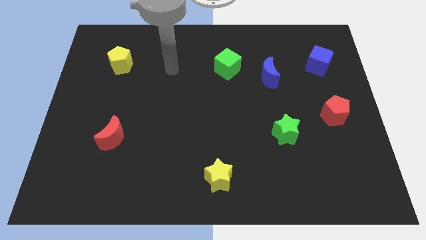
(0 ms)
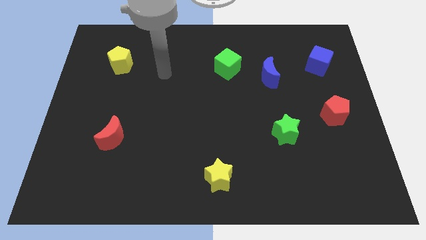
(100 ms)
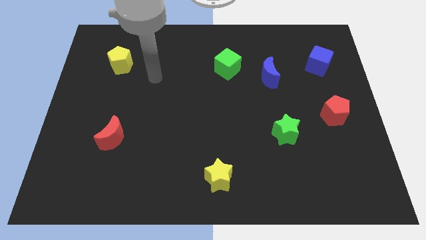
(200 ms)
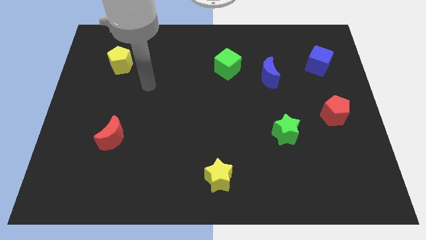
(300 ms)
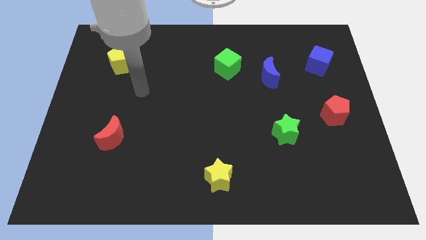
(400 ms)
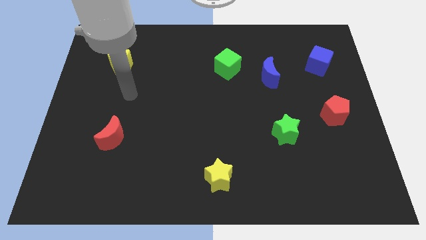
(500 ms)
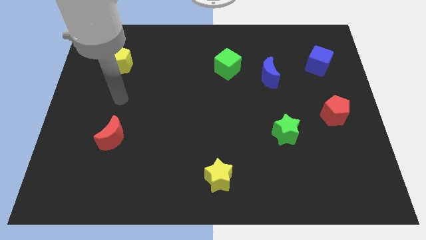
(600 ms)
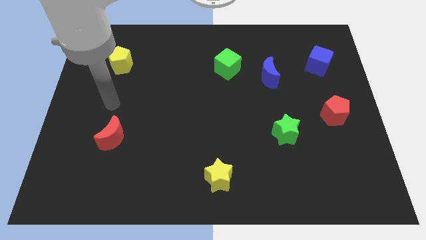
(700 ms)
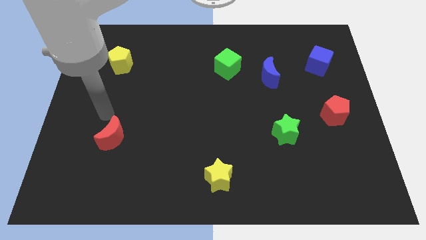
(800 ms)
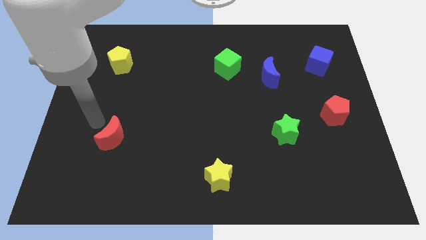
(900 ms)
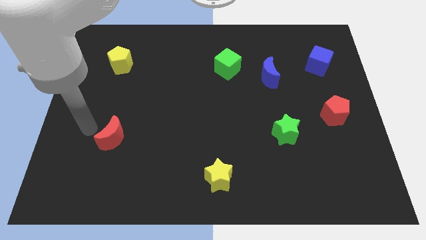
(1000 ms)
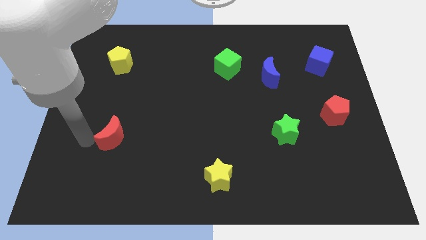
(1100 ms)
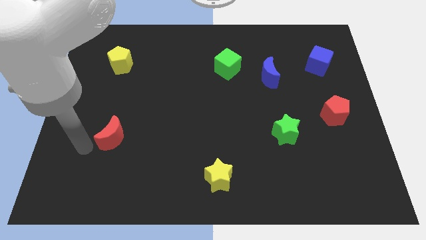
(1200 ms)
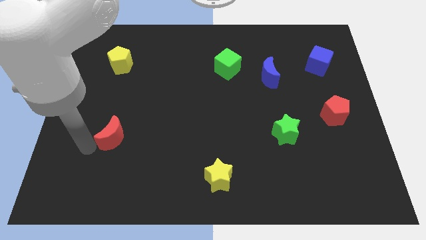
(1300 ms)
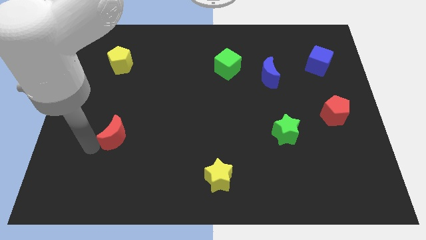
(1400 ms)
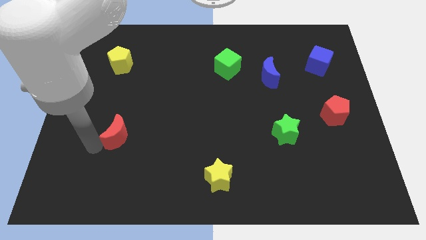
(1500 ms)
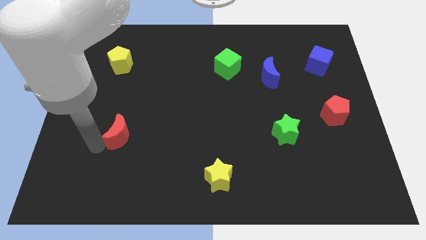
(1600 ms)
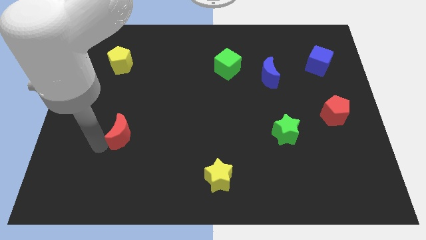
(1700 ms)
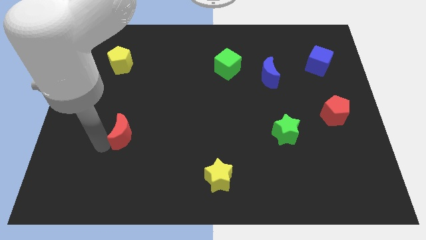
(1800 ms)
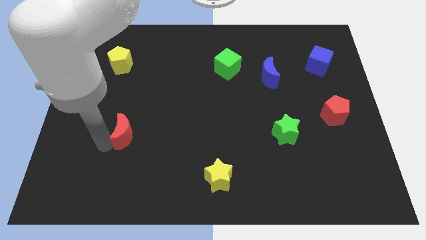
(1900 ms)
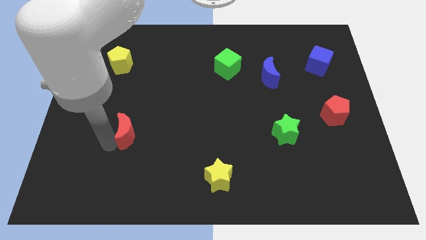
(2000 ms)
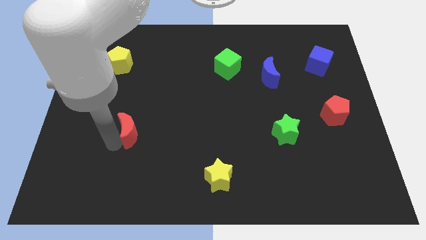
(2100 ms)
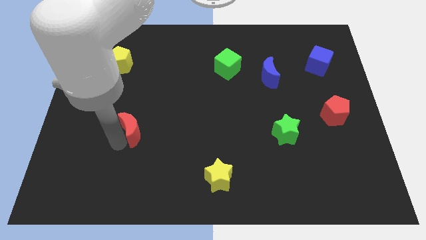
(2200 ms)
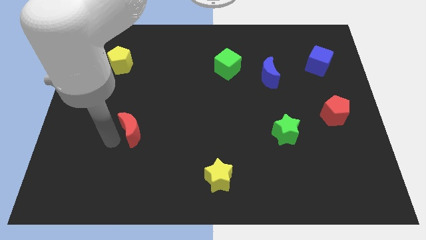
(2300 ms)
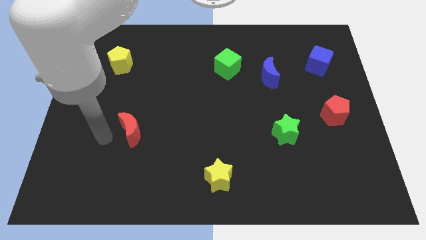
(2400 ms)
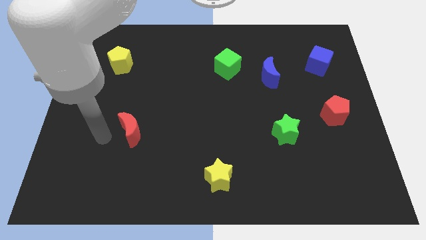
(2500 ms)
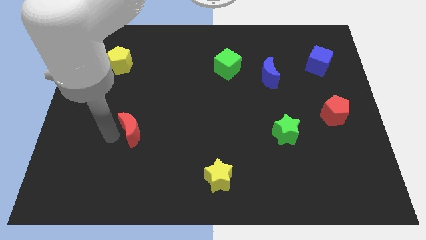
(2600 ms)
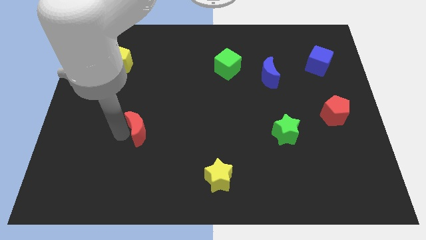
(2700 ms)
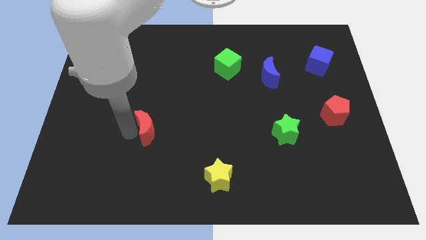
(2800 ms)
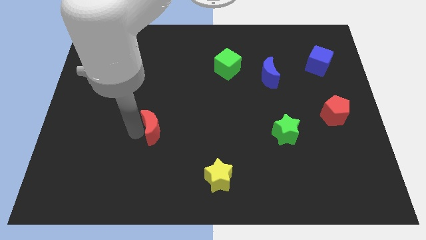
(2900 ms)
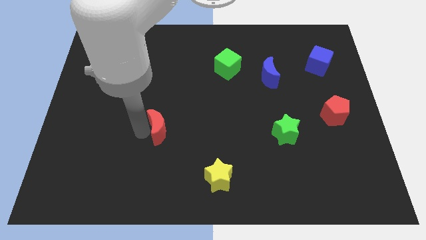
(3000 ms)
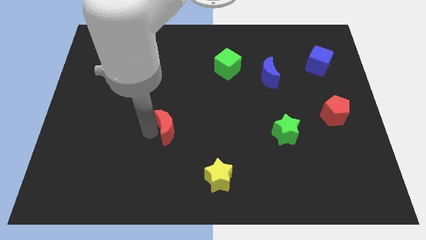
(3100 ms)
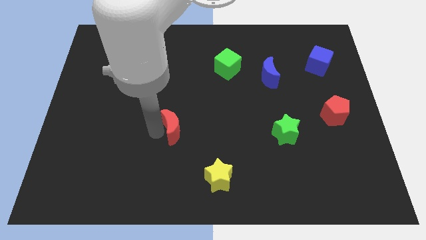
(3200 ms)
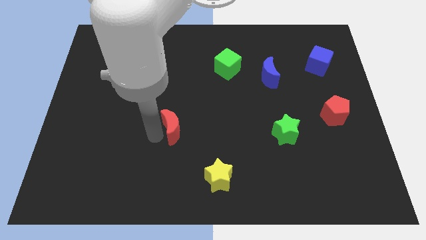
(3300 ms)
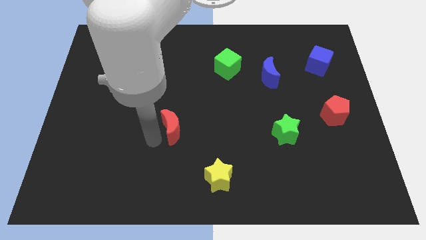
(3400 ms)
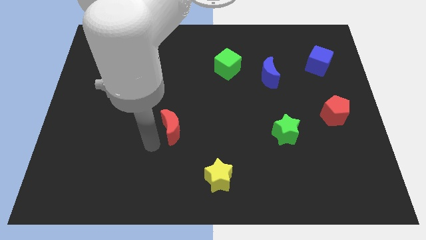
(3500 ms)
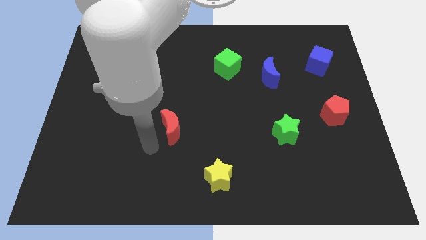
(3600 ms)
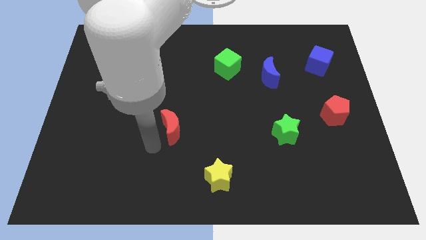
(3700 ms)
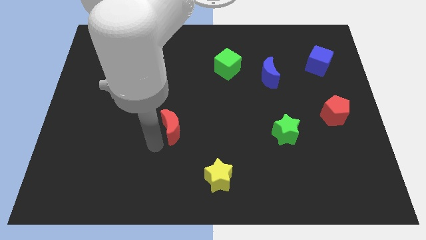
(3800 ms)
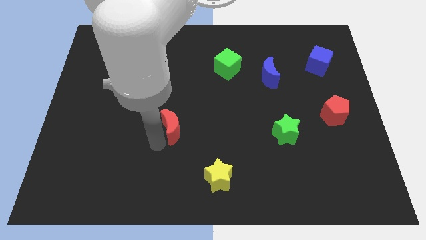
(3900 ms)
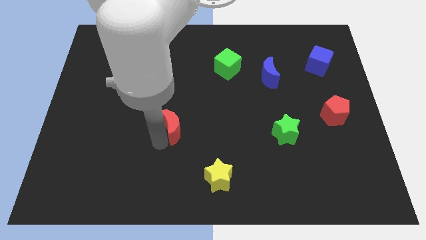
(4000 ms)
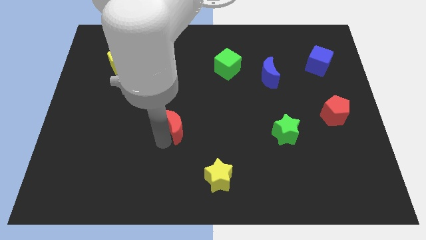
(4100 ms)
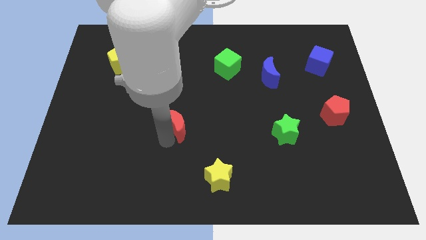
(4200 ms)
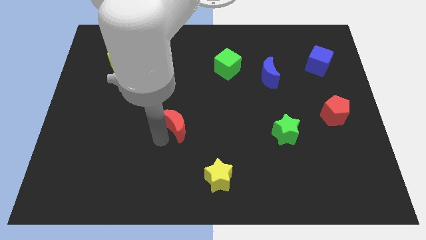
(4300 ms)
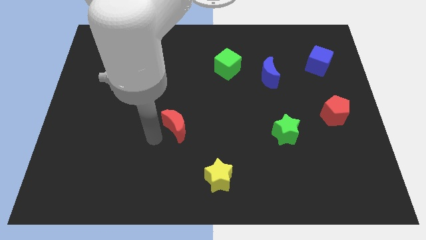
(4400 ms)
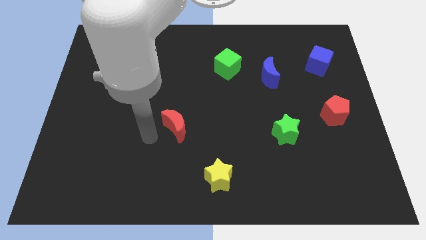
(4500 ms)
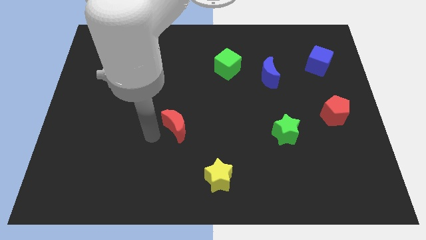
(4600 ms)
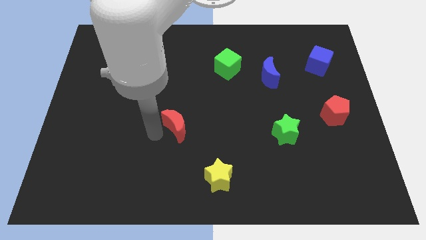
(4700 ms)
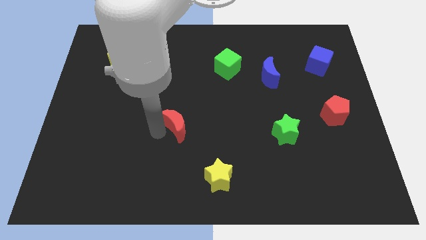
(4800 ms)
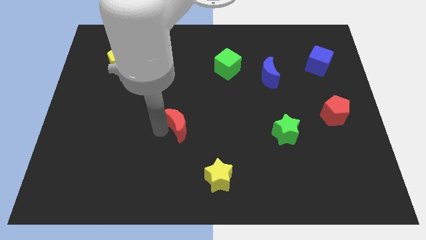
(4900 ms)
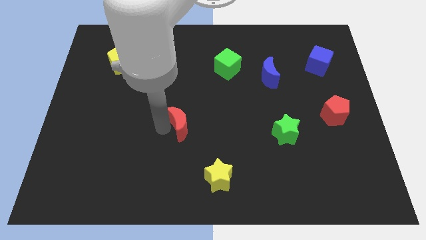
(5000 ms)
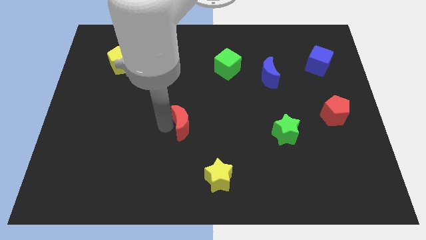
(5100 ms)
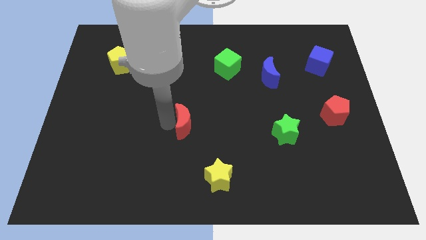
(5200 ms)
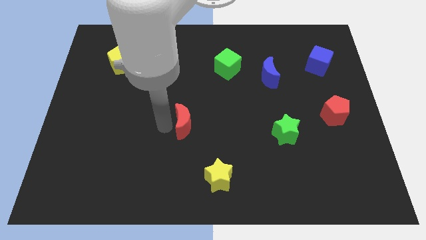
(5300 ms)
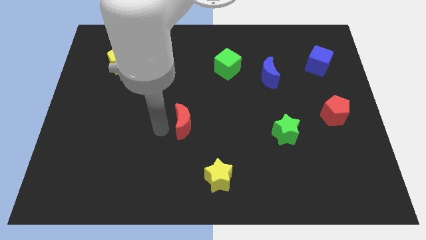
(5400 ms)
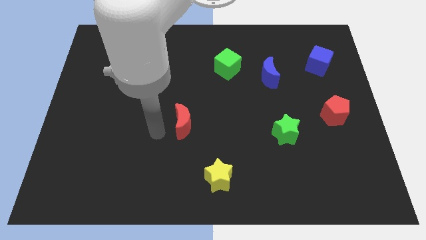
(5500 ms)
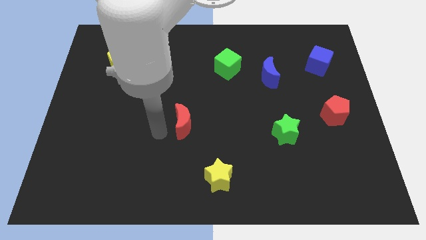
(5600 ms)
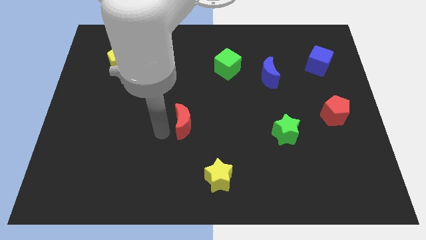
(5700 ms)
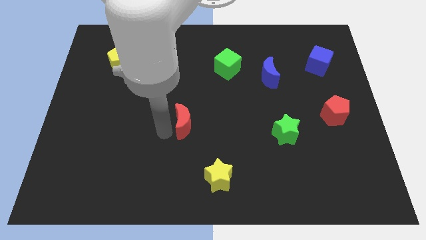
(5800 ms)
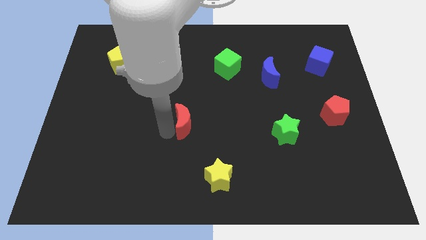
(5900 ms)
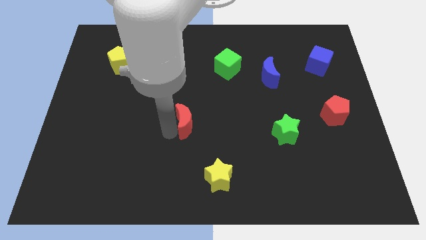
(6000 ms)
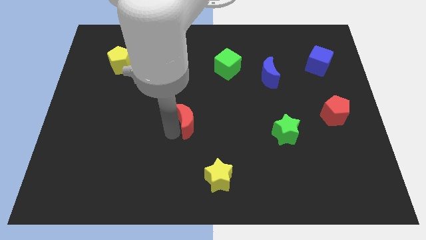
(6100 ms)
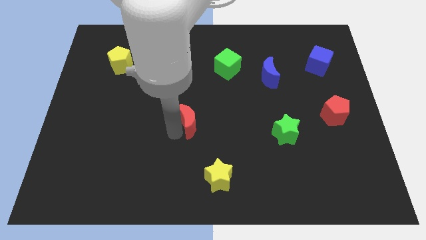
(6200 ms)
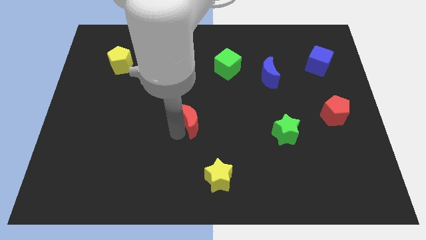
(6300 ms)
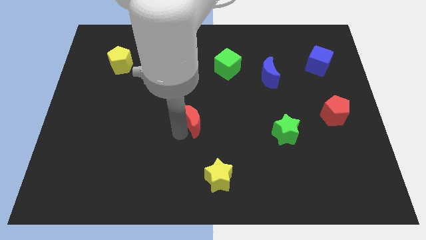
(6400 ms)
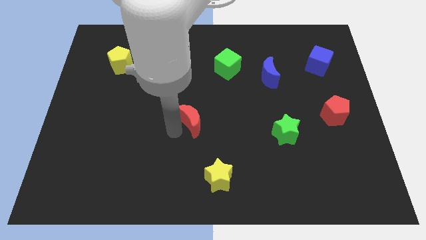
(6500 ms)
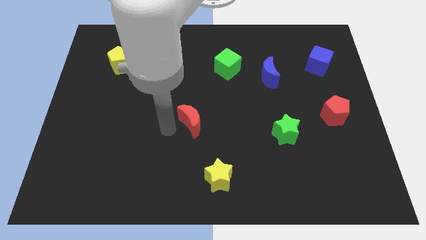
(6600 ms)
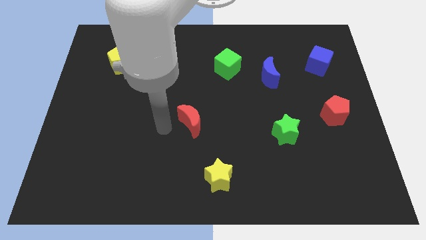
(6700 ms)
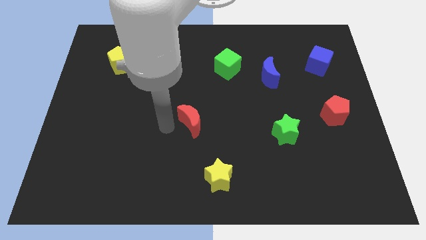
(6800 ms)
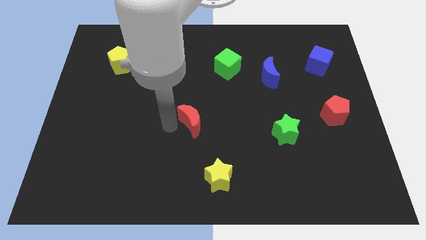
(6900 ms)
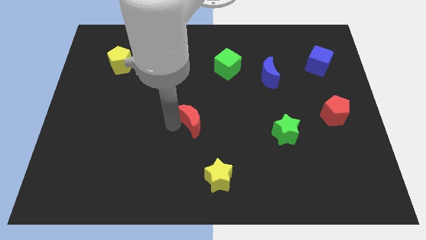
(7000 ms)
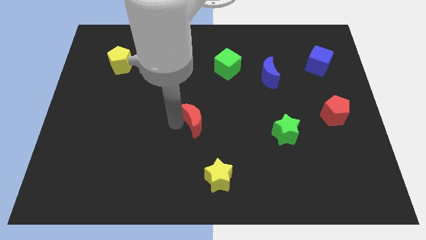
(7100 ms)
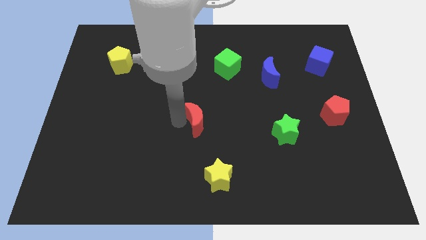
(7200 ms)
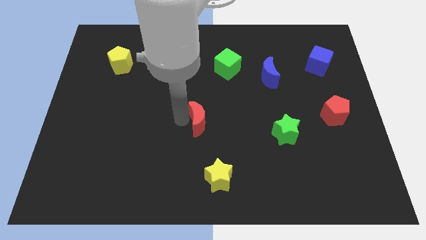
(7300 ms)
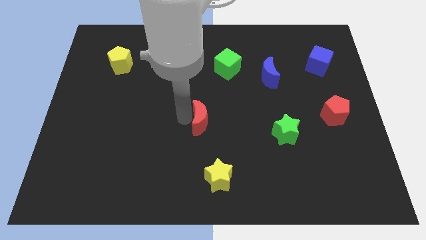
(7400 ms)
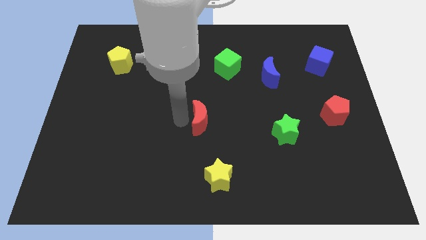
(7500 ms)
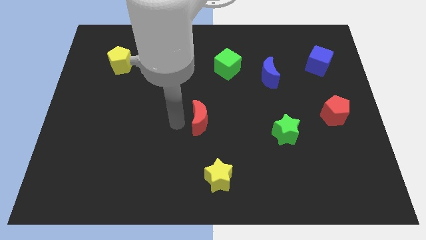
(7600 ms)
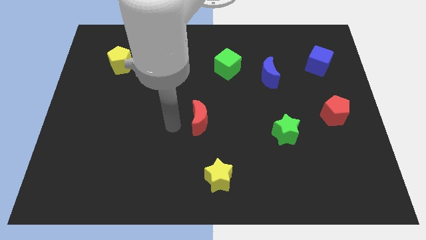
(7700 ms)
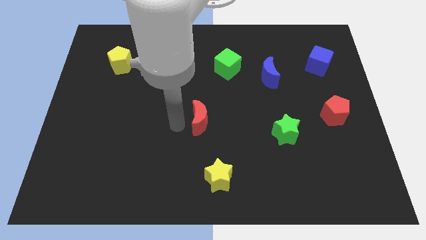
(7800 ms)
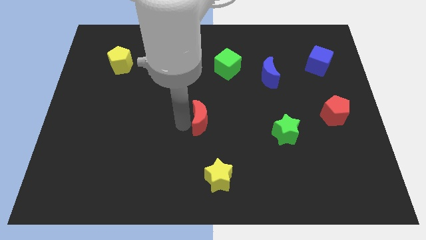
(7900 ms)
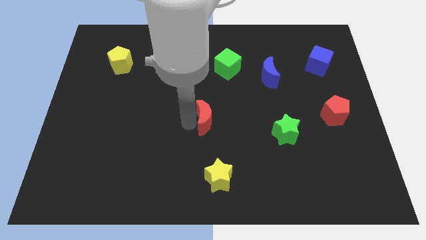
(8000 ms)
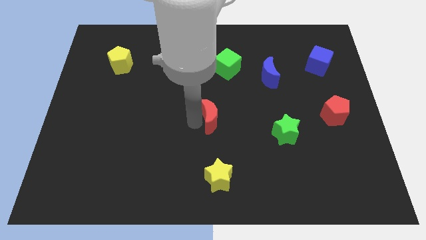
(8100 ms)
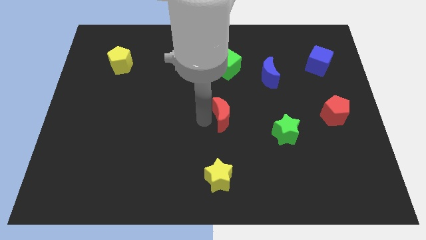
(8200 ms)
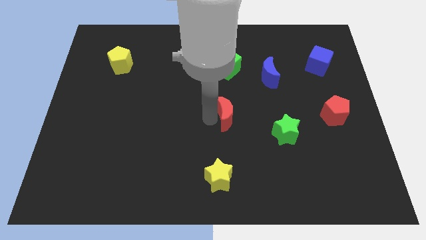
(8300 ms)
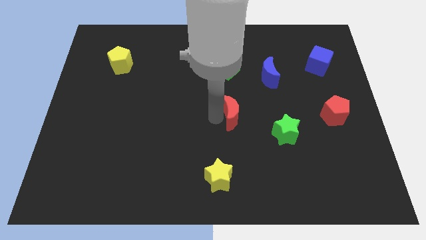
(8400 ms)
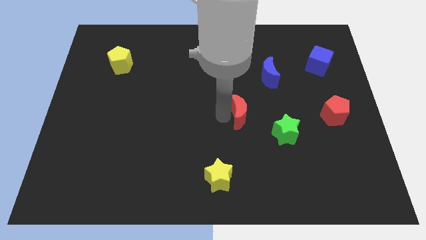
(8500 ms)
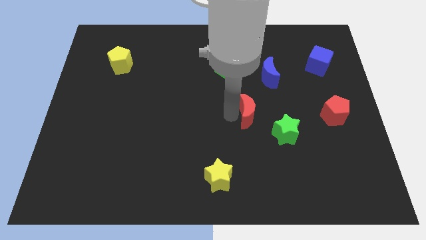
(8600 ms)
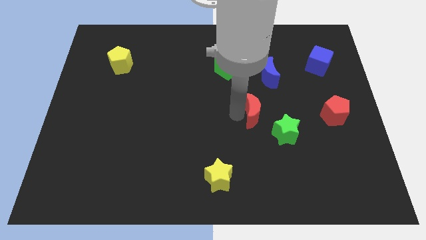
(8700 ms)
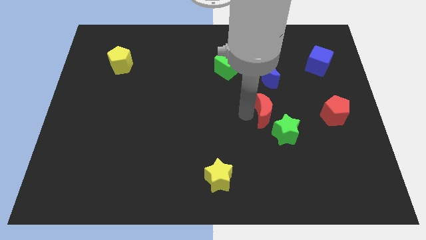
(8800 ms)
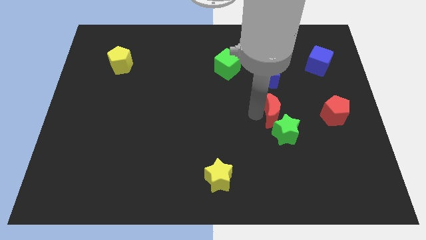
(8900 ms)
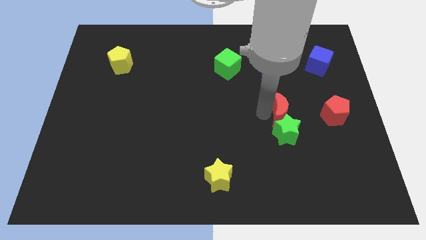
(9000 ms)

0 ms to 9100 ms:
slide the red moon diagonally up and to the right of the green star
